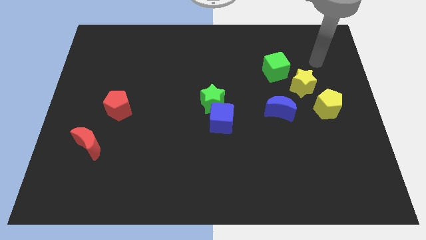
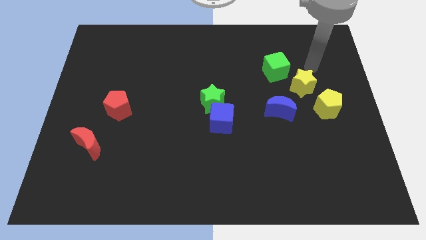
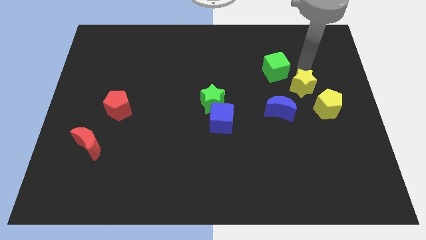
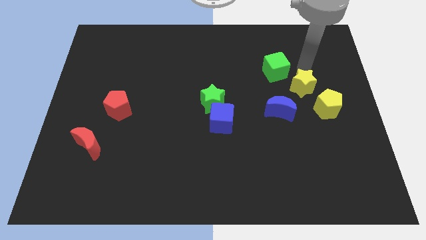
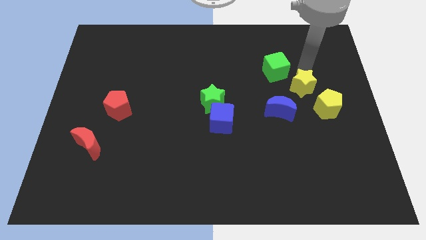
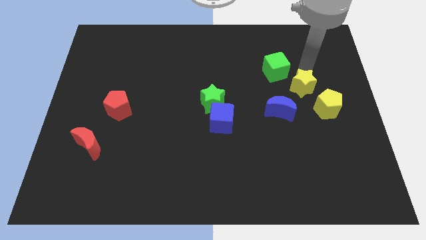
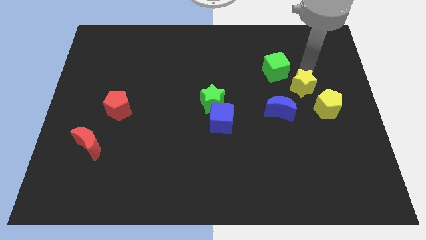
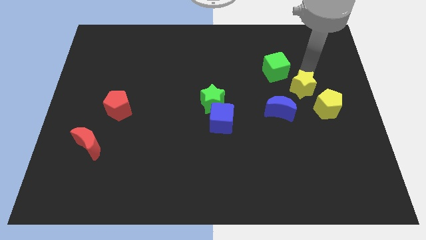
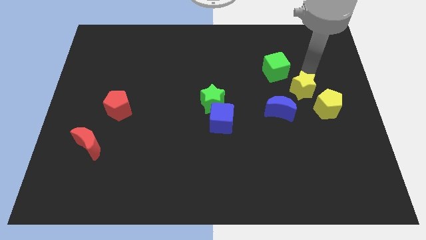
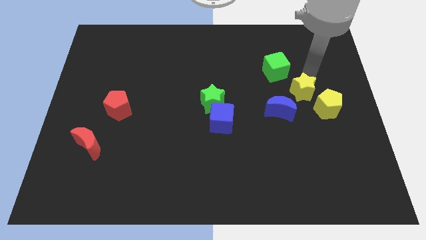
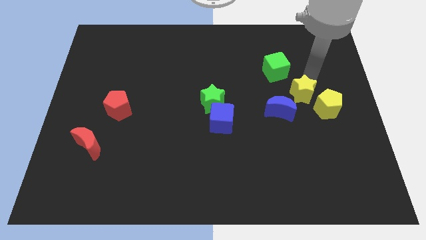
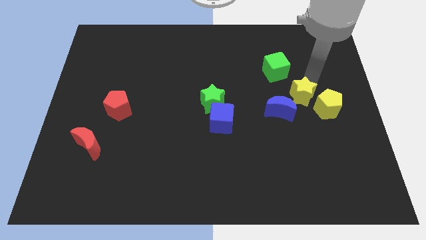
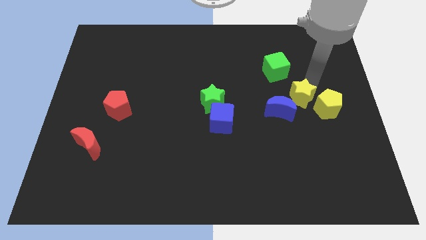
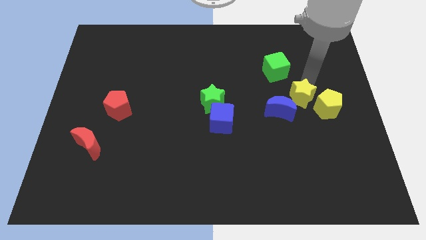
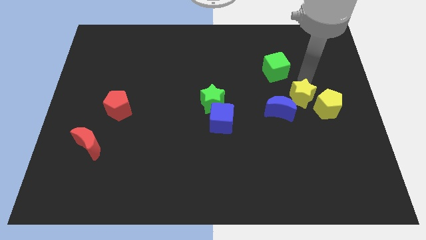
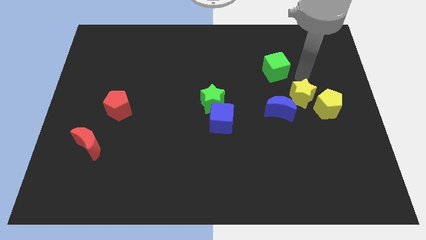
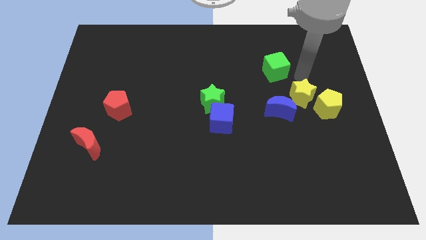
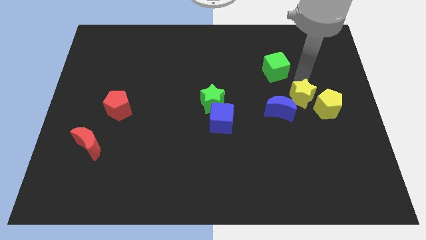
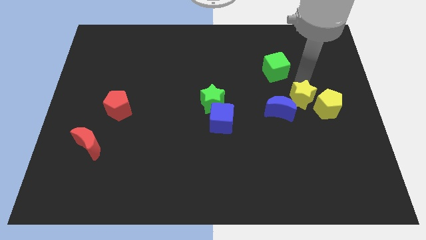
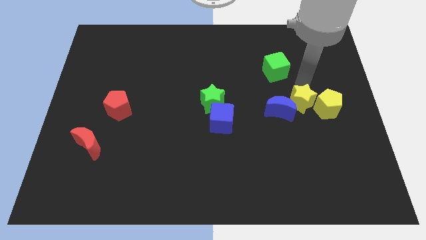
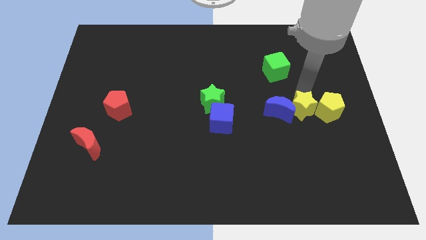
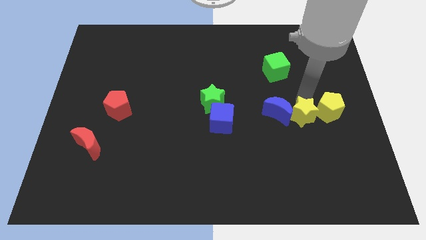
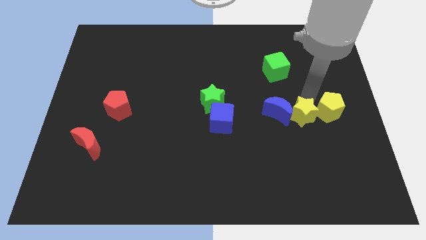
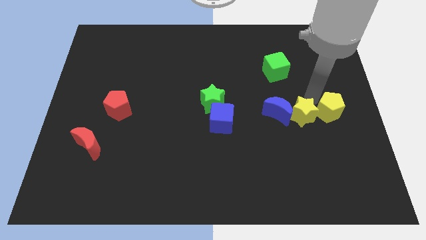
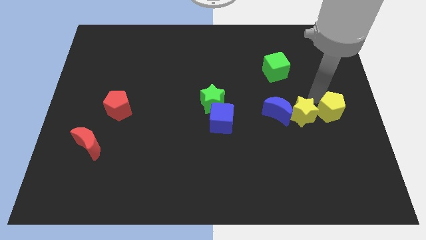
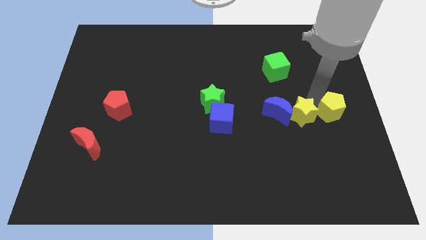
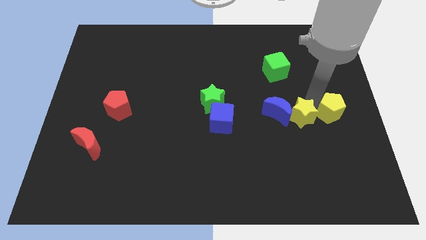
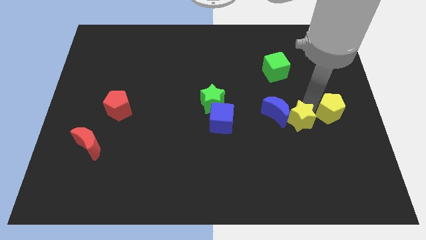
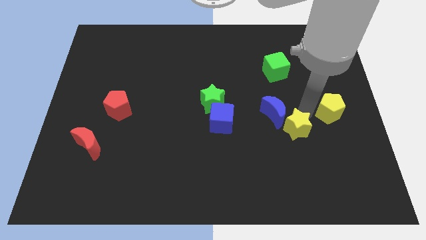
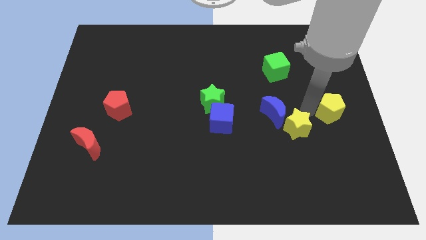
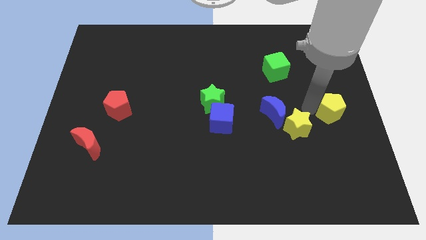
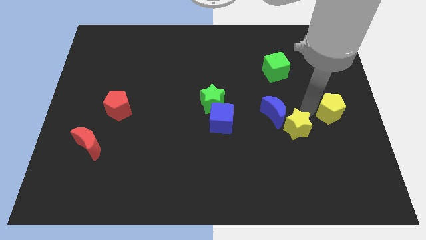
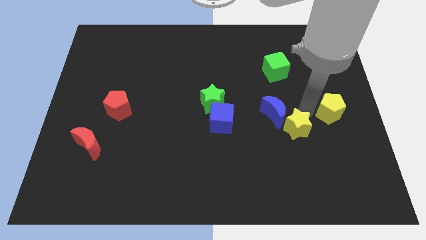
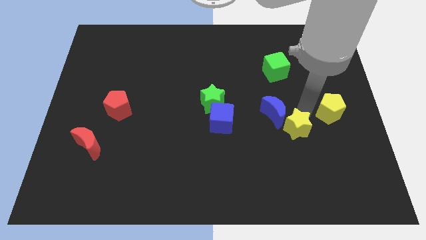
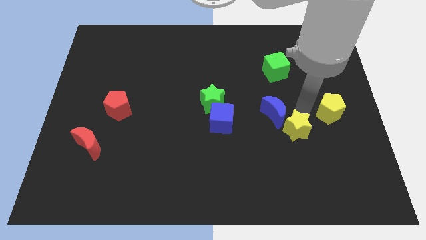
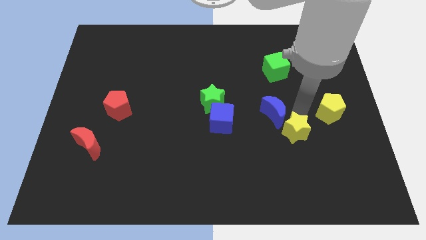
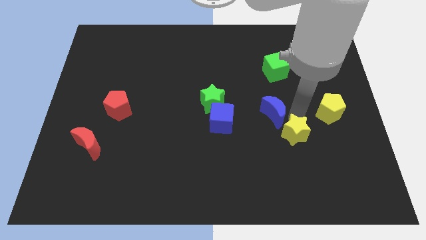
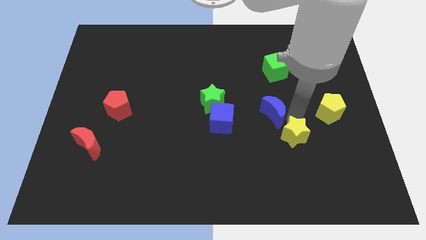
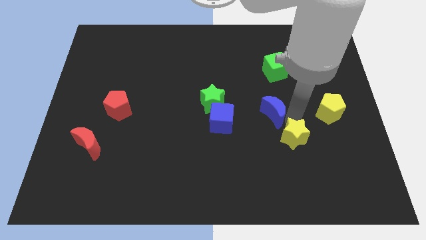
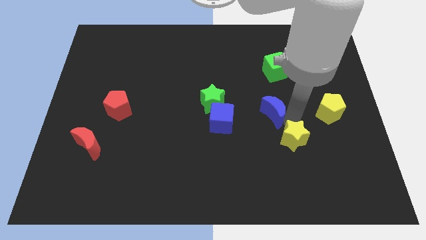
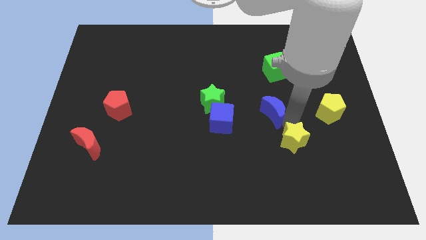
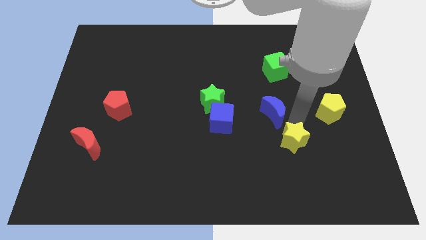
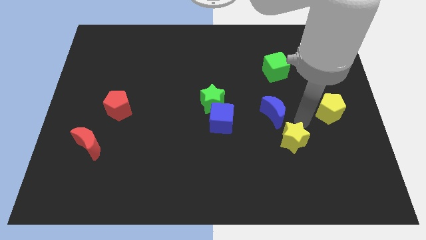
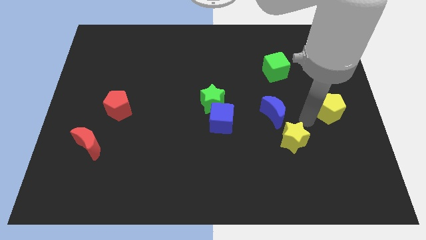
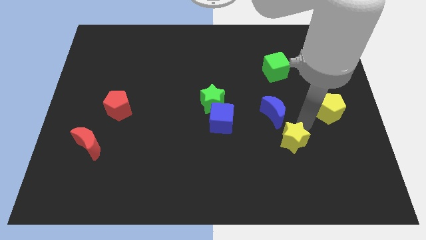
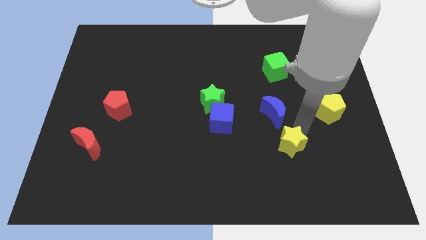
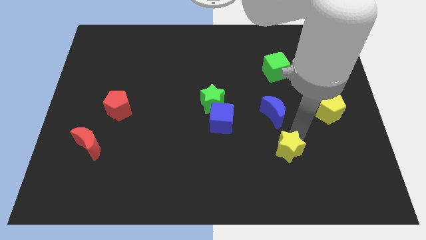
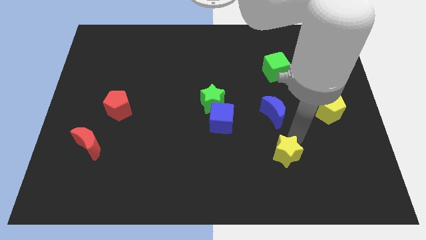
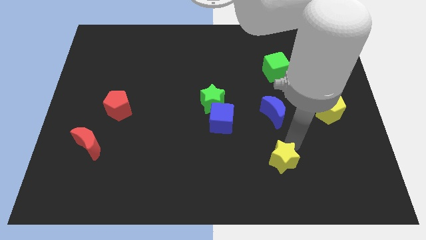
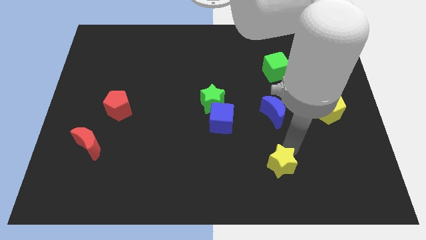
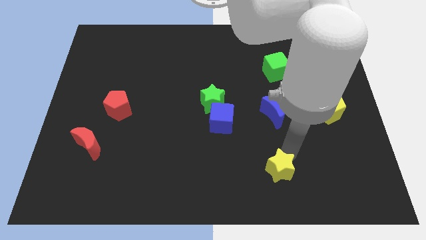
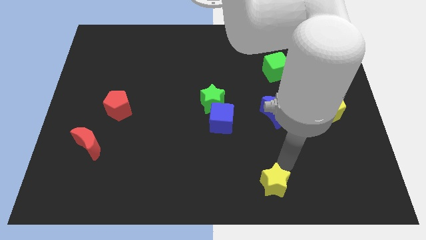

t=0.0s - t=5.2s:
slide the yellow star to the bottom

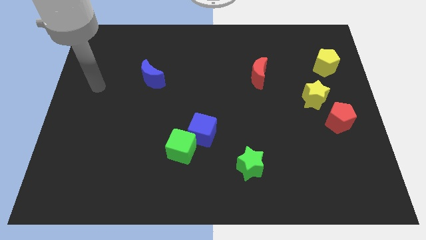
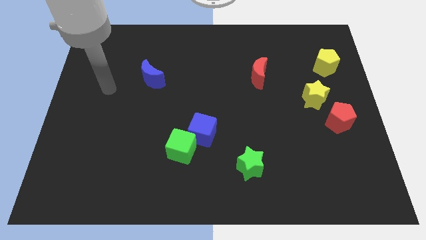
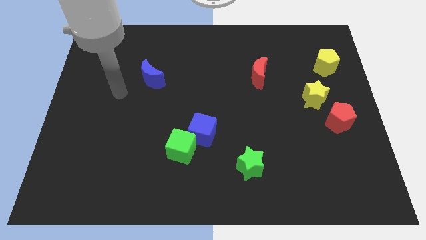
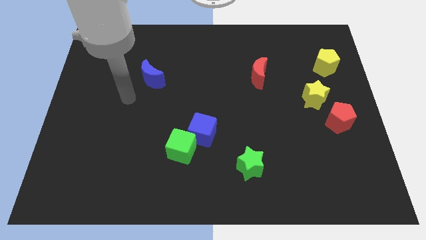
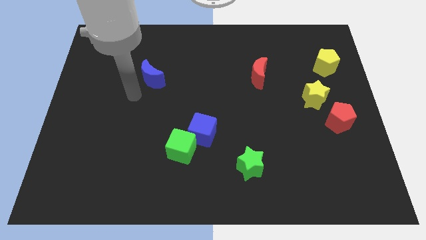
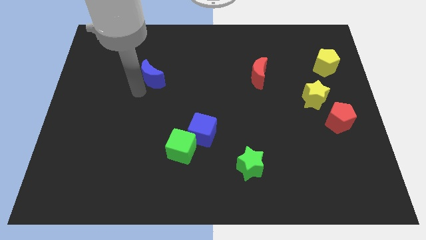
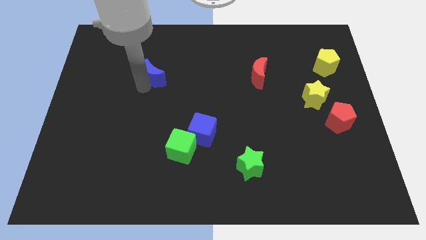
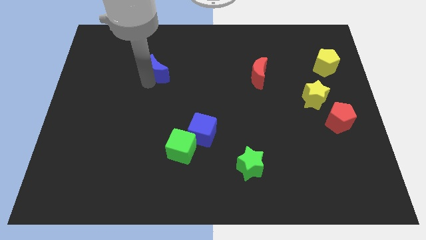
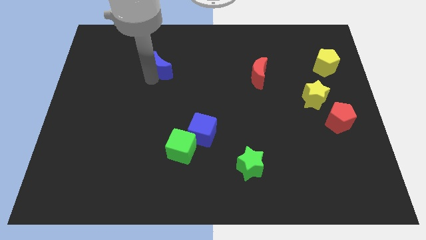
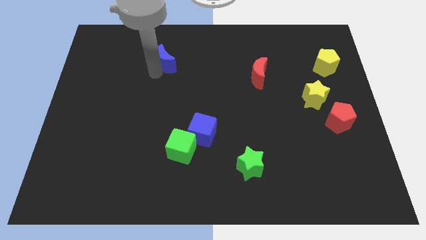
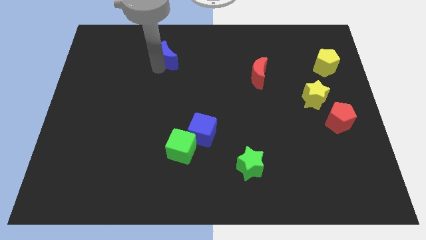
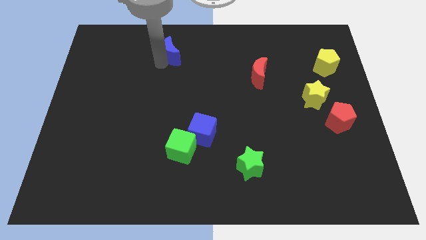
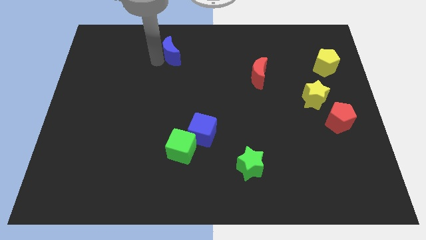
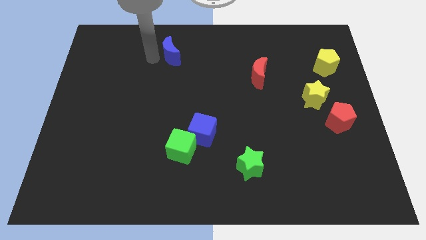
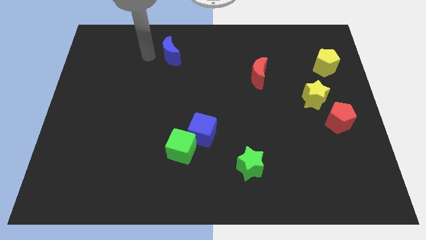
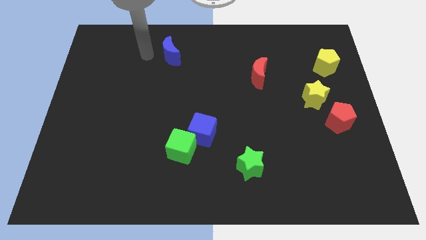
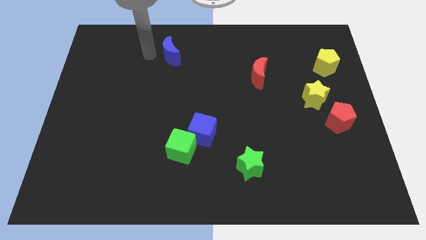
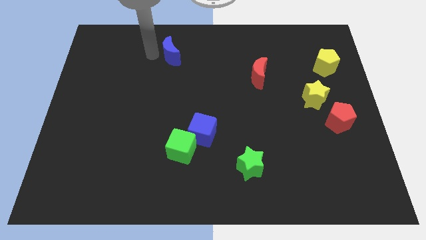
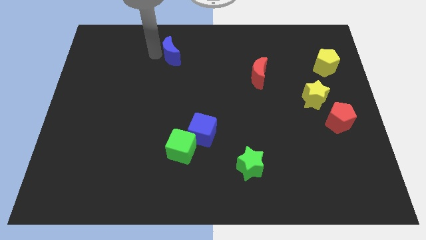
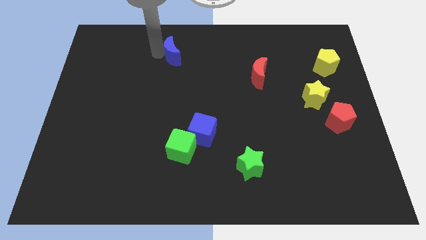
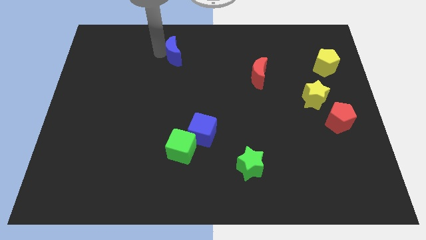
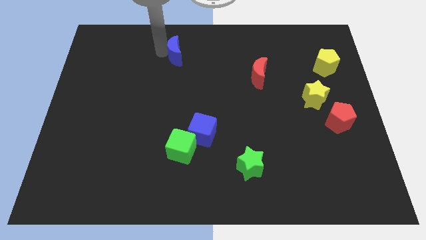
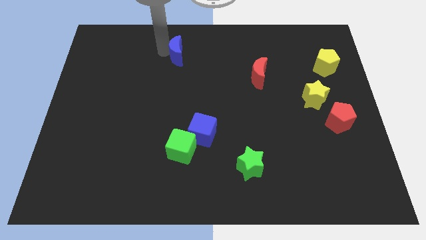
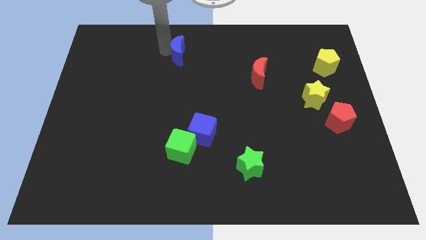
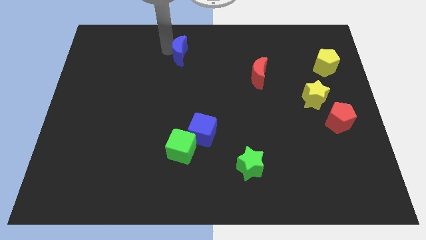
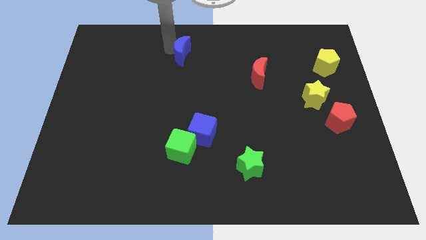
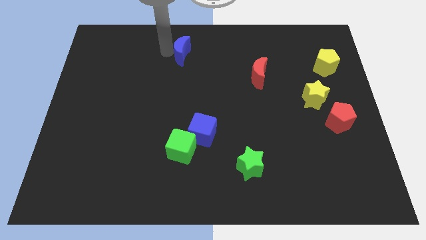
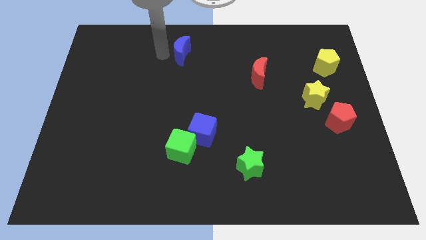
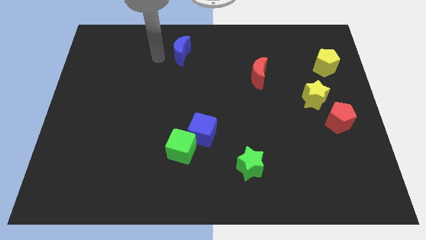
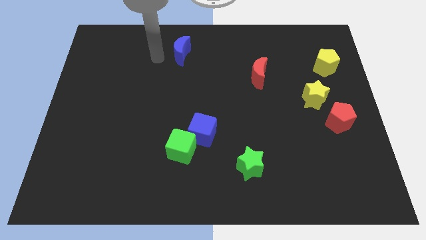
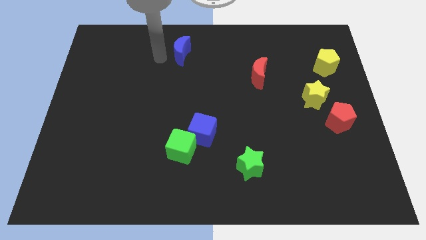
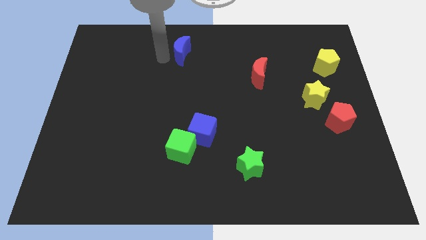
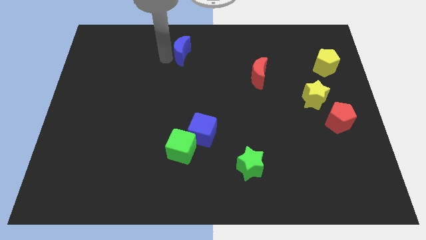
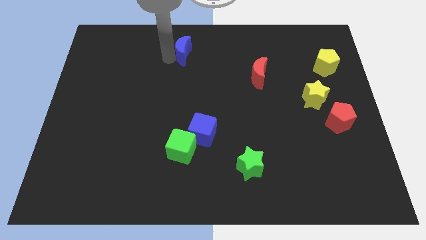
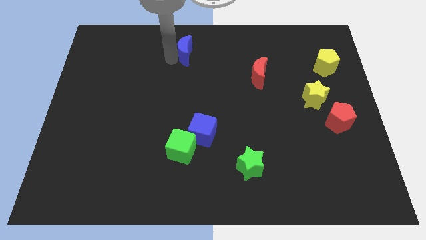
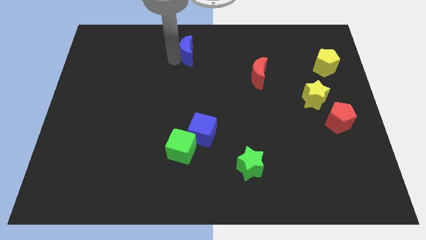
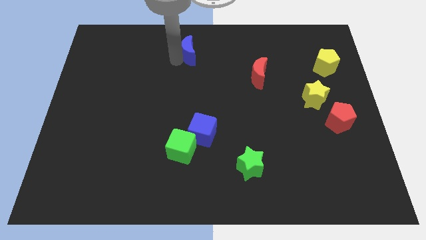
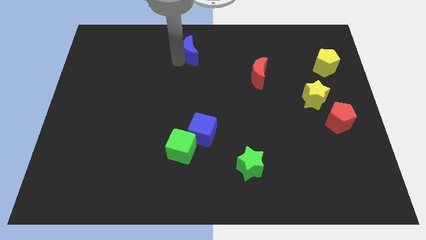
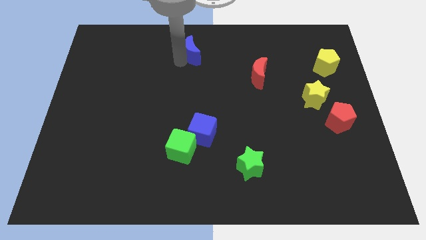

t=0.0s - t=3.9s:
slide the blue moon to the top
